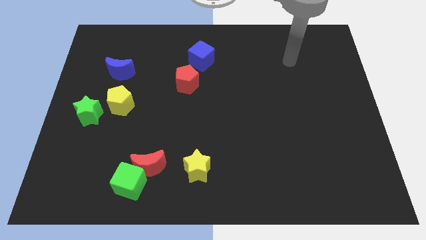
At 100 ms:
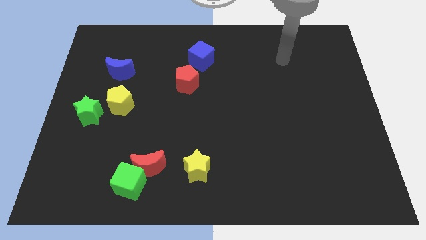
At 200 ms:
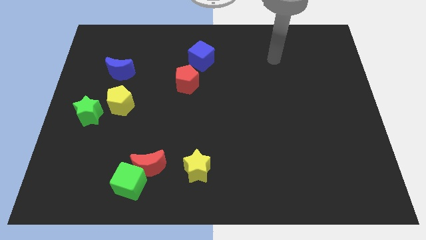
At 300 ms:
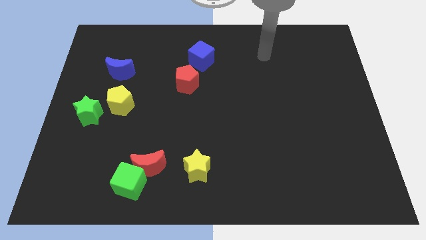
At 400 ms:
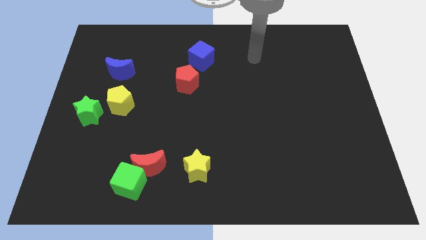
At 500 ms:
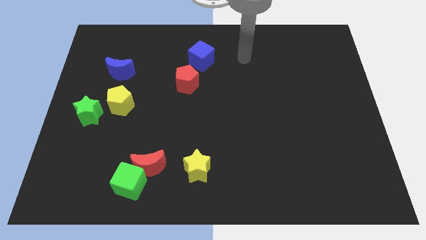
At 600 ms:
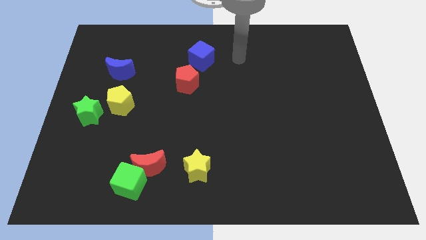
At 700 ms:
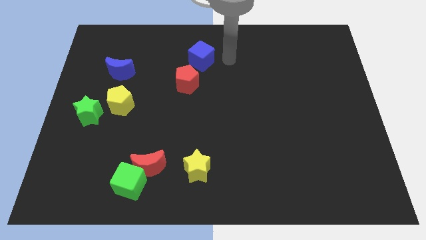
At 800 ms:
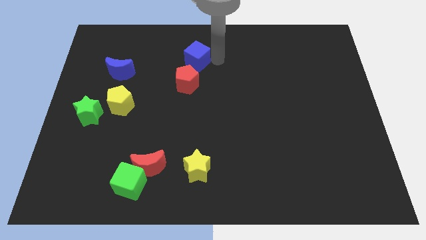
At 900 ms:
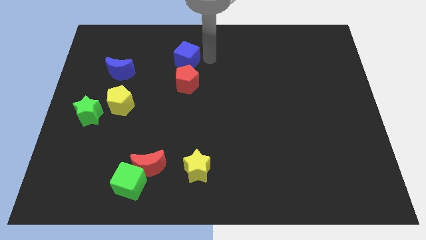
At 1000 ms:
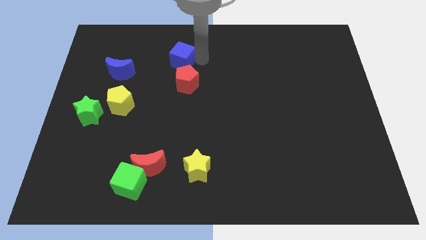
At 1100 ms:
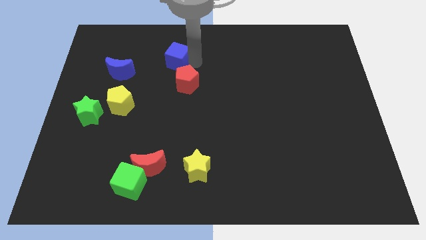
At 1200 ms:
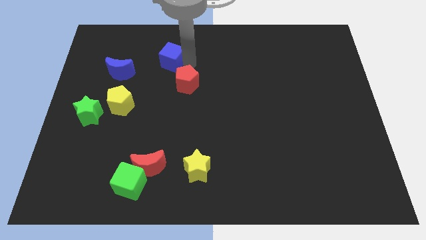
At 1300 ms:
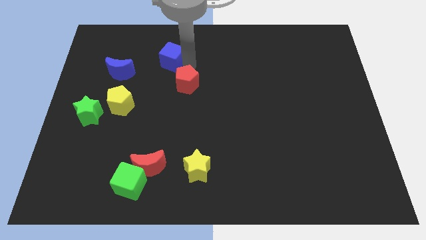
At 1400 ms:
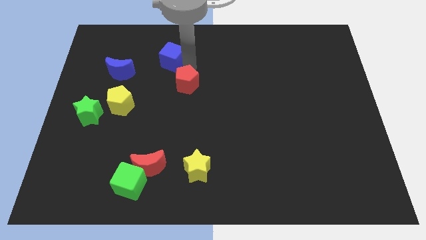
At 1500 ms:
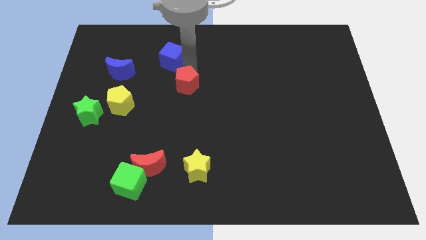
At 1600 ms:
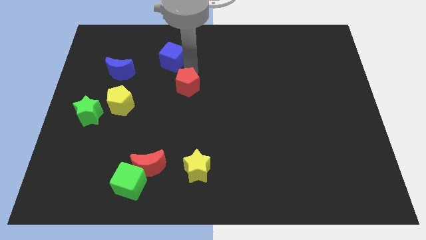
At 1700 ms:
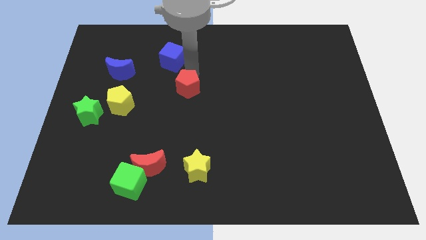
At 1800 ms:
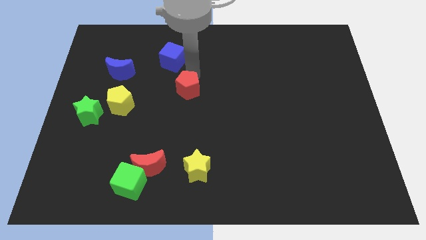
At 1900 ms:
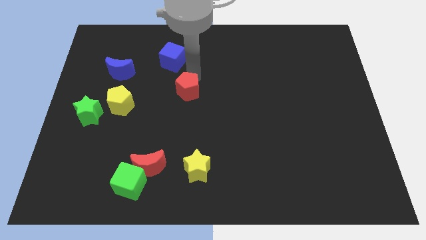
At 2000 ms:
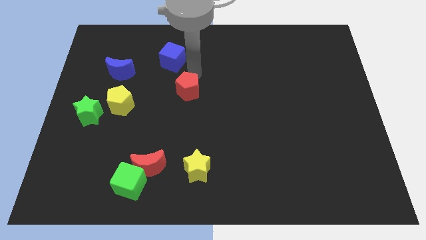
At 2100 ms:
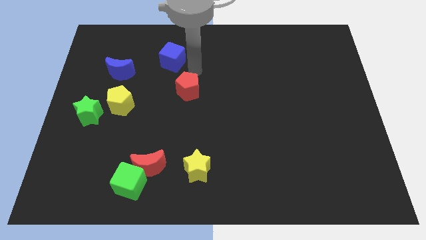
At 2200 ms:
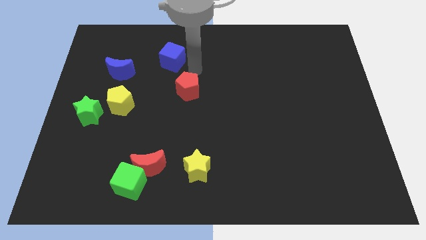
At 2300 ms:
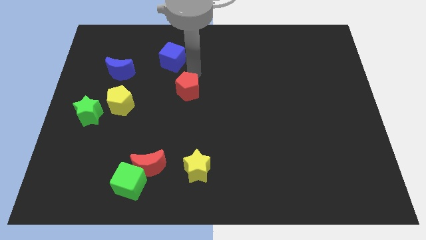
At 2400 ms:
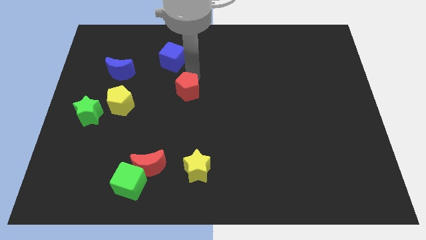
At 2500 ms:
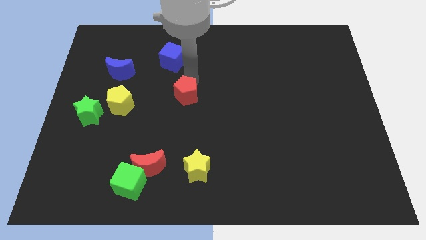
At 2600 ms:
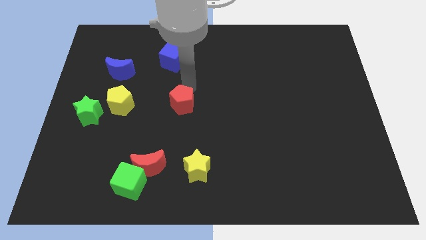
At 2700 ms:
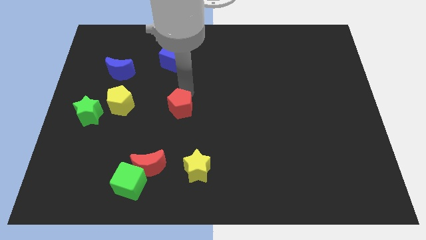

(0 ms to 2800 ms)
move the red pentagon a little downwards

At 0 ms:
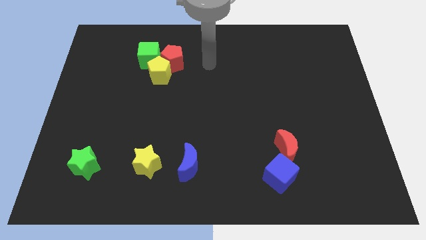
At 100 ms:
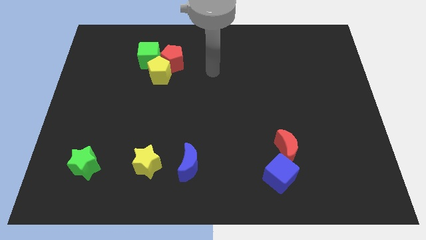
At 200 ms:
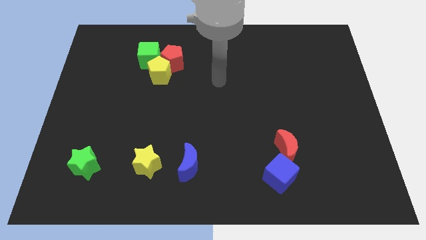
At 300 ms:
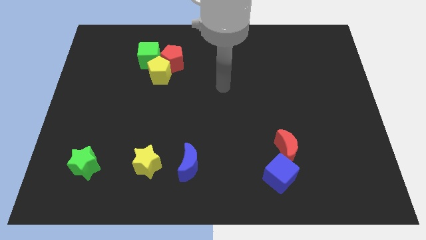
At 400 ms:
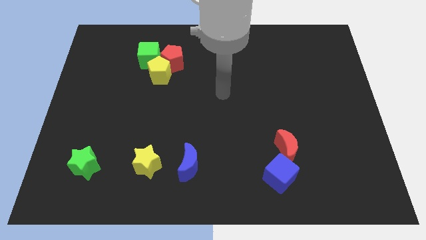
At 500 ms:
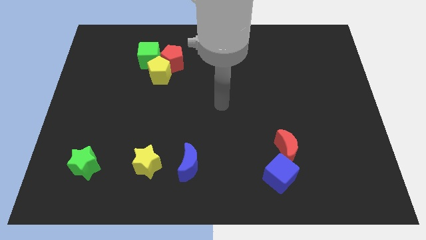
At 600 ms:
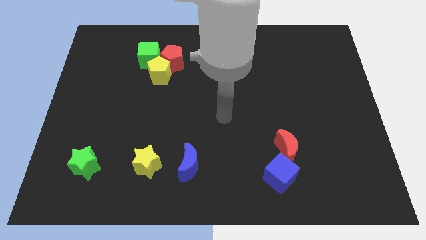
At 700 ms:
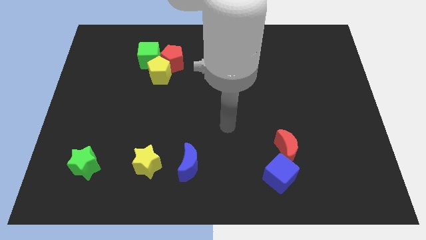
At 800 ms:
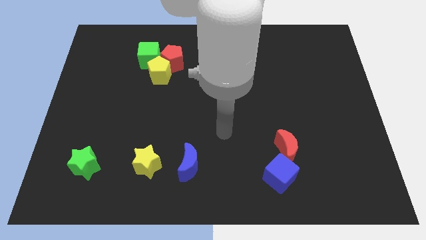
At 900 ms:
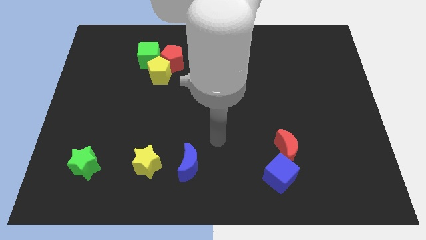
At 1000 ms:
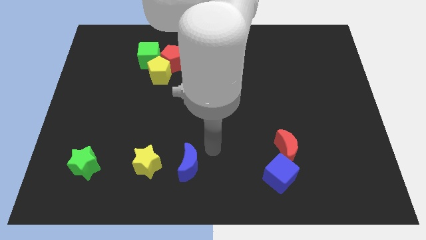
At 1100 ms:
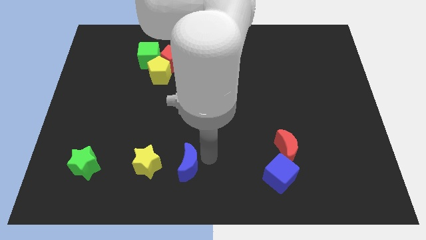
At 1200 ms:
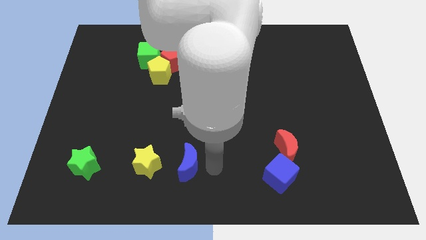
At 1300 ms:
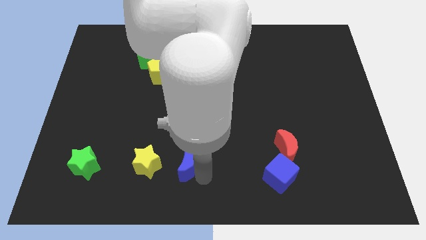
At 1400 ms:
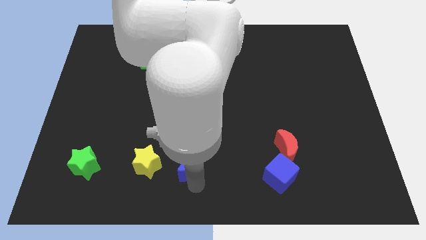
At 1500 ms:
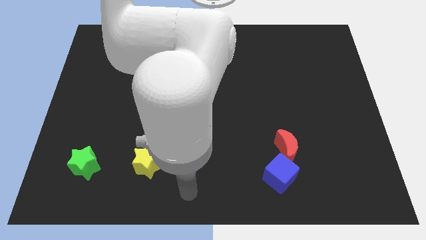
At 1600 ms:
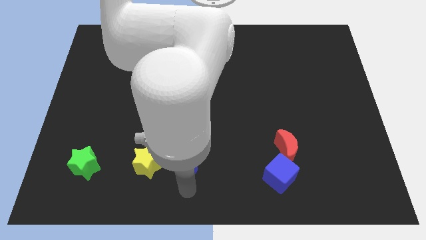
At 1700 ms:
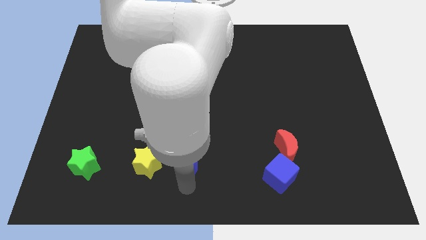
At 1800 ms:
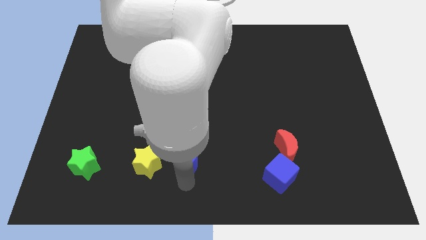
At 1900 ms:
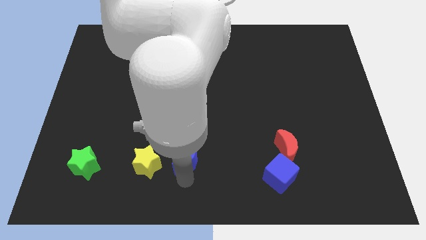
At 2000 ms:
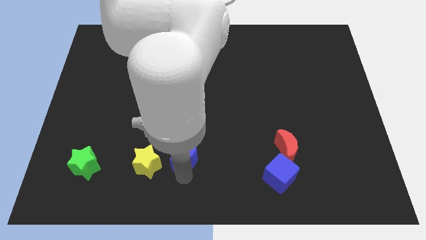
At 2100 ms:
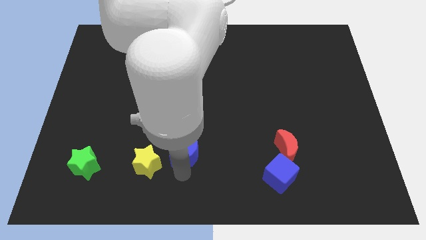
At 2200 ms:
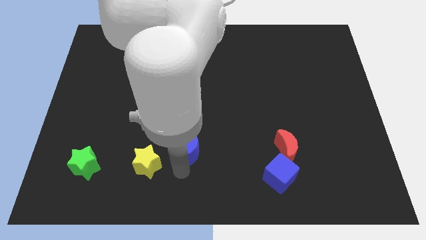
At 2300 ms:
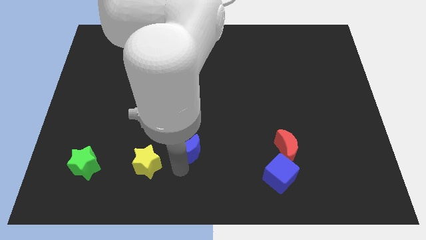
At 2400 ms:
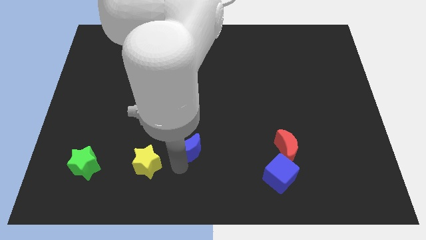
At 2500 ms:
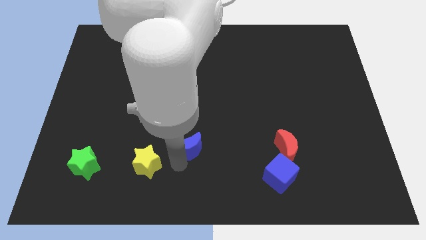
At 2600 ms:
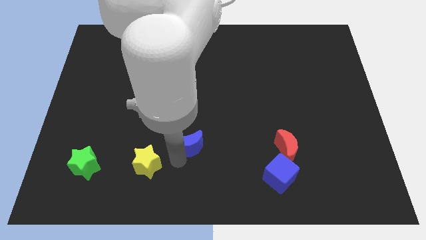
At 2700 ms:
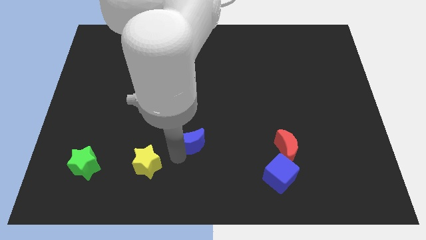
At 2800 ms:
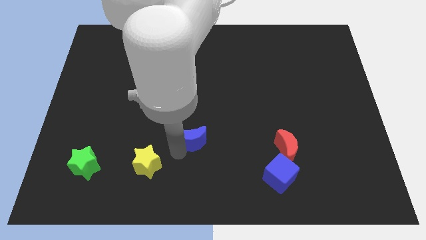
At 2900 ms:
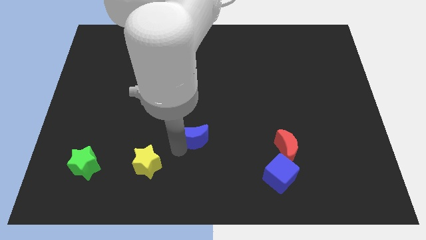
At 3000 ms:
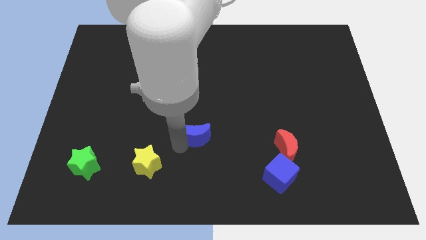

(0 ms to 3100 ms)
push the blue moon somewhat up

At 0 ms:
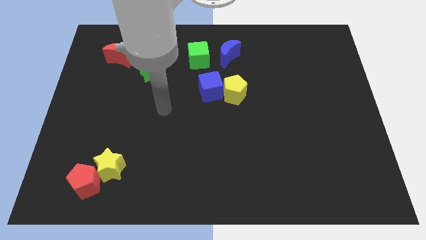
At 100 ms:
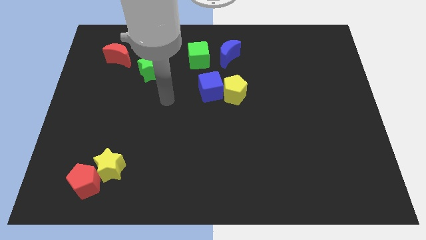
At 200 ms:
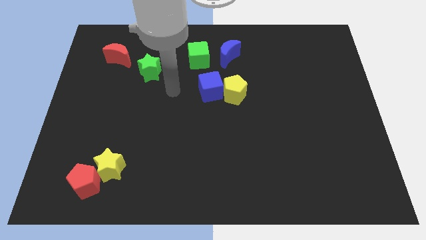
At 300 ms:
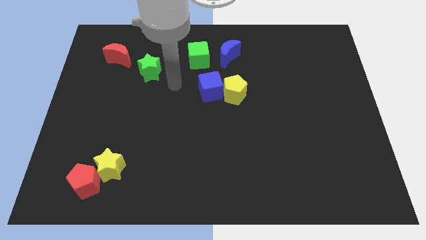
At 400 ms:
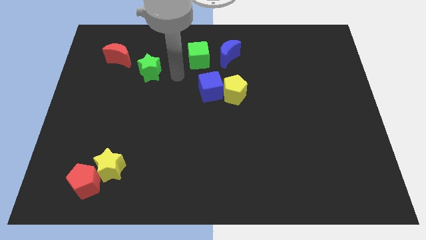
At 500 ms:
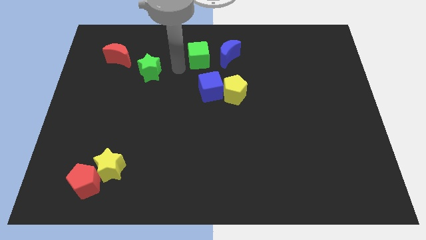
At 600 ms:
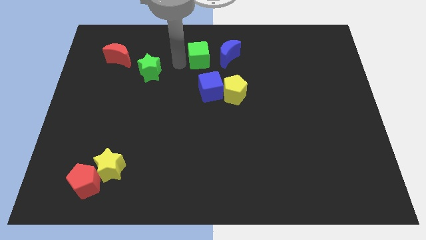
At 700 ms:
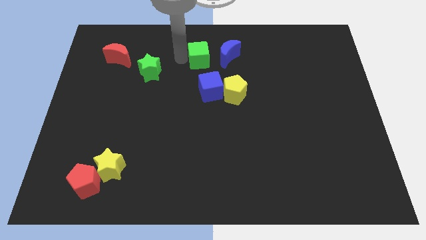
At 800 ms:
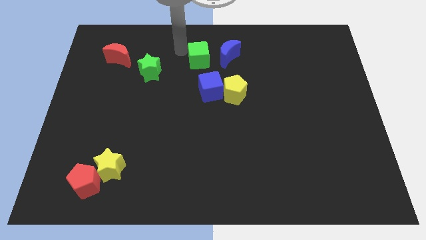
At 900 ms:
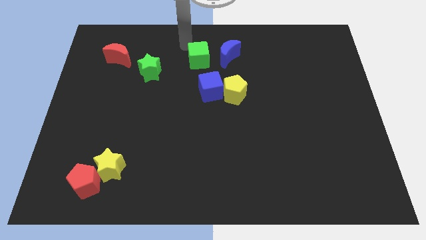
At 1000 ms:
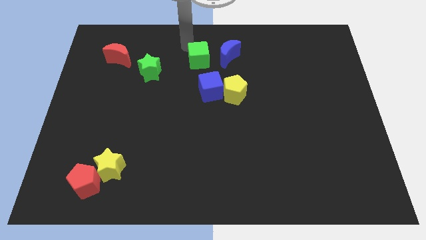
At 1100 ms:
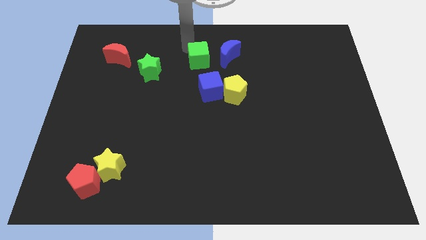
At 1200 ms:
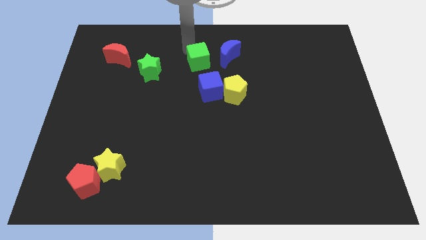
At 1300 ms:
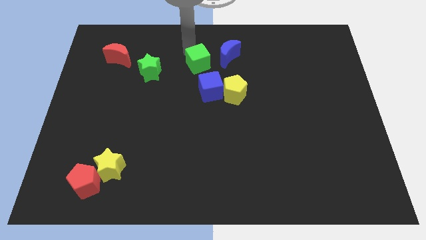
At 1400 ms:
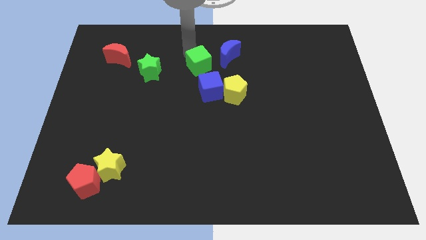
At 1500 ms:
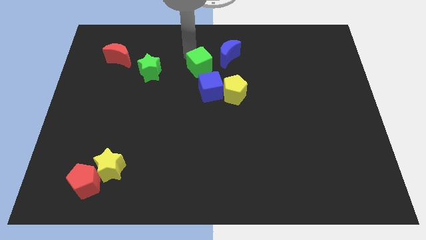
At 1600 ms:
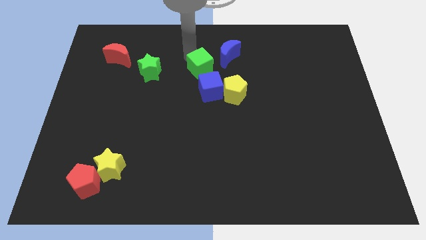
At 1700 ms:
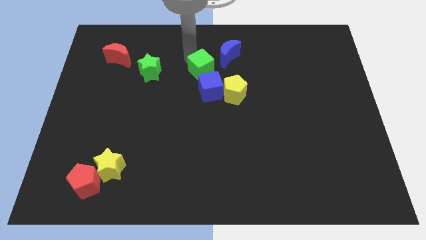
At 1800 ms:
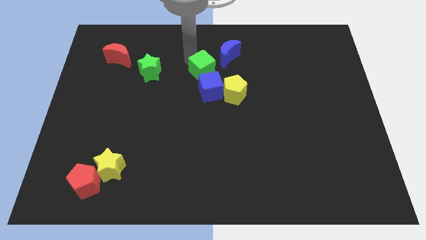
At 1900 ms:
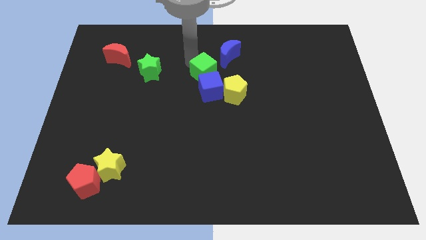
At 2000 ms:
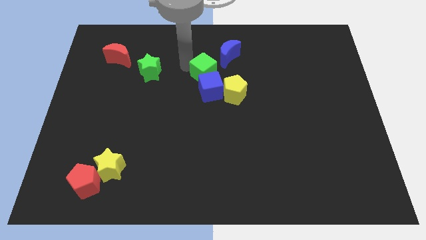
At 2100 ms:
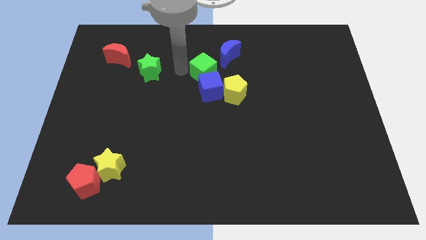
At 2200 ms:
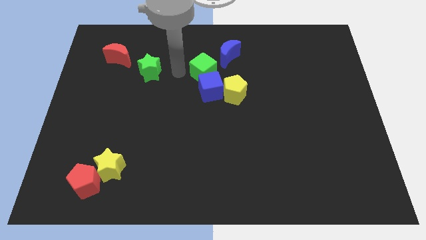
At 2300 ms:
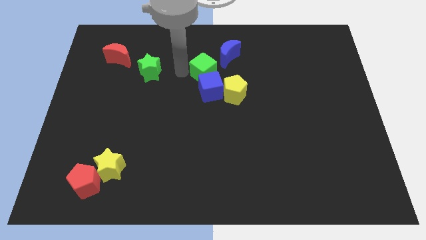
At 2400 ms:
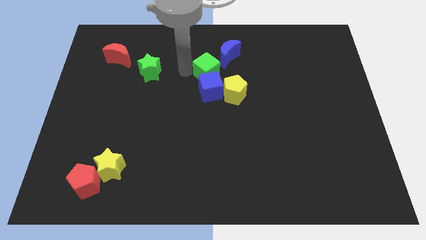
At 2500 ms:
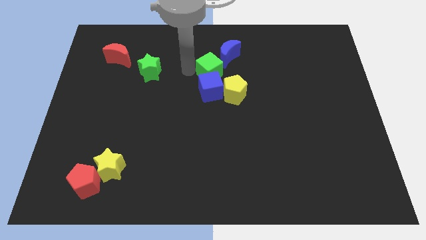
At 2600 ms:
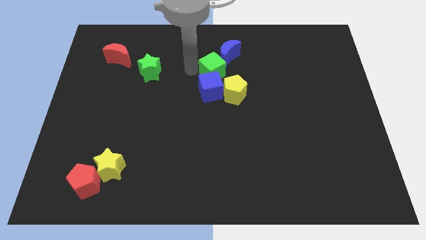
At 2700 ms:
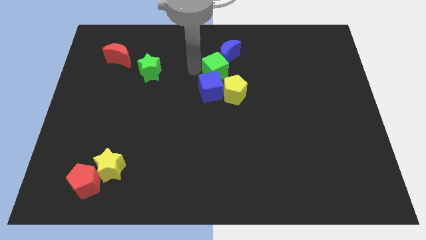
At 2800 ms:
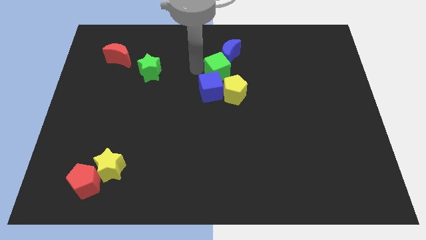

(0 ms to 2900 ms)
slightly push the green cube diagonally down and right
